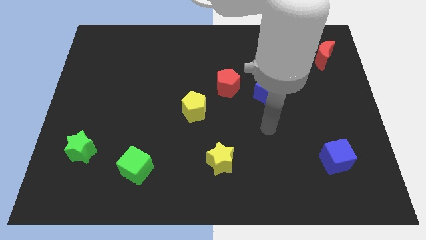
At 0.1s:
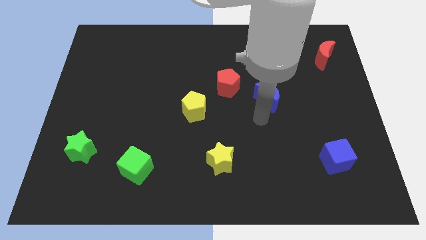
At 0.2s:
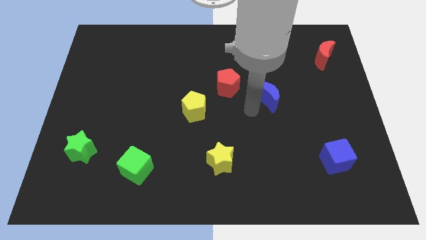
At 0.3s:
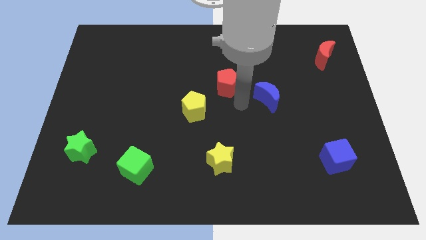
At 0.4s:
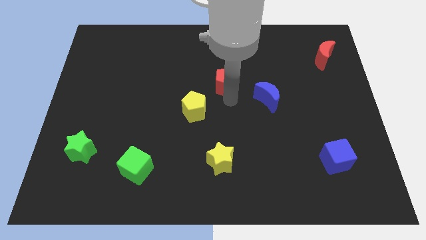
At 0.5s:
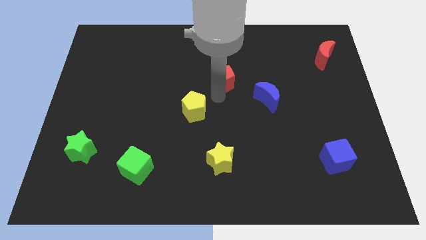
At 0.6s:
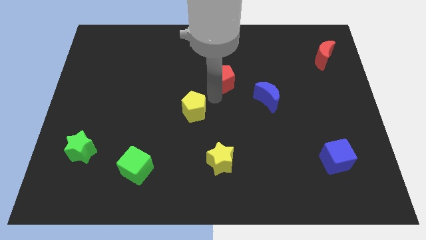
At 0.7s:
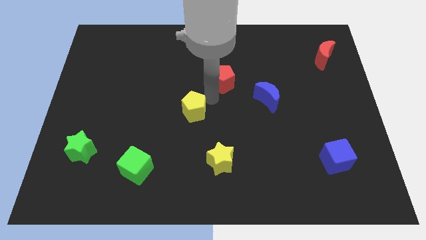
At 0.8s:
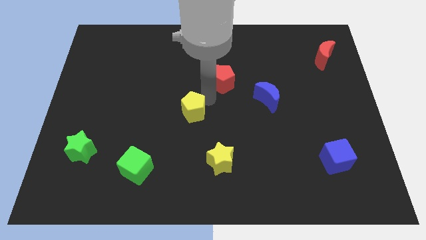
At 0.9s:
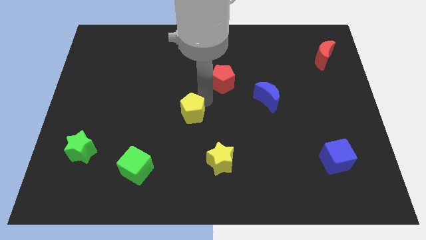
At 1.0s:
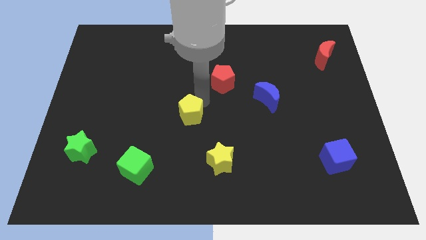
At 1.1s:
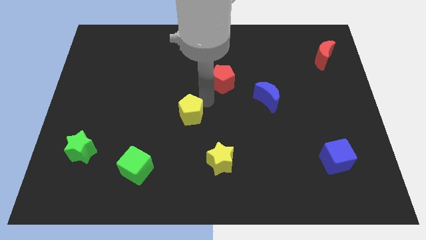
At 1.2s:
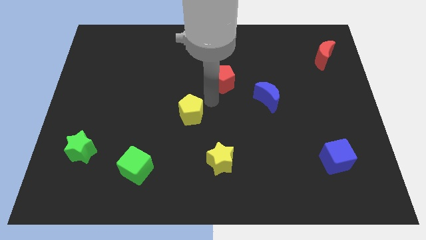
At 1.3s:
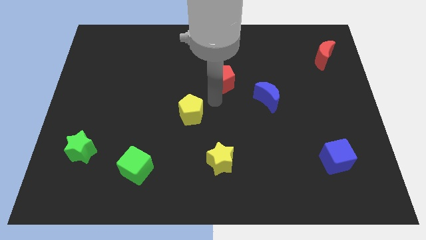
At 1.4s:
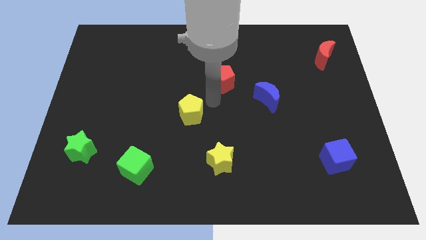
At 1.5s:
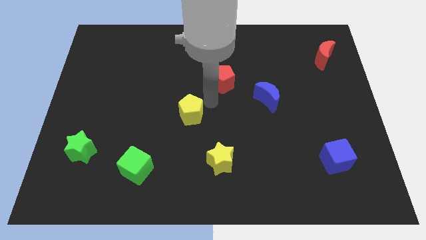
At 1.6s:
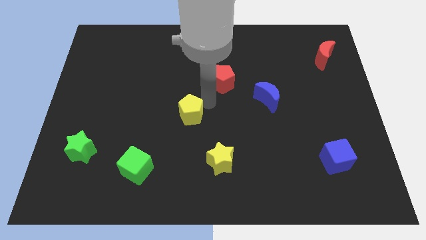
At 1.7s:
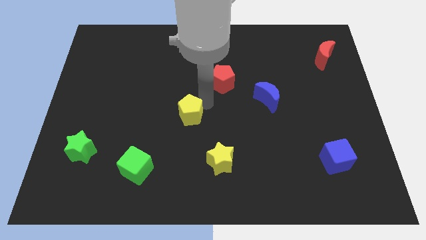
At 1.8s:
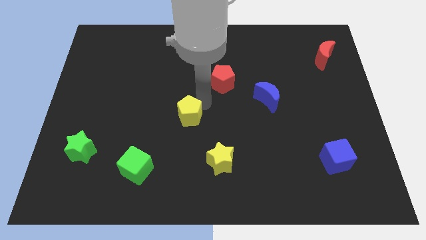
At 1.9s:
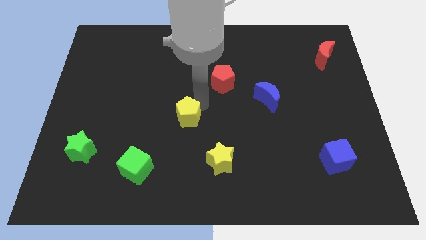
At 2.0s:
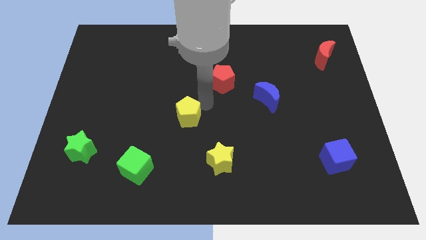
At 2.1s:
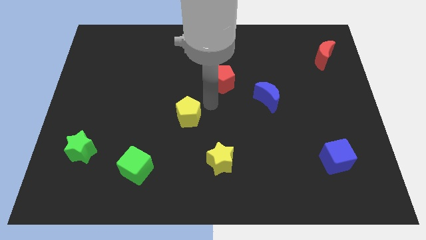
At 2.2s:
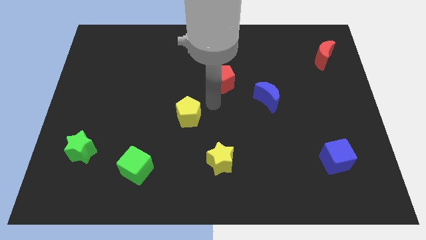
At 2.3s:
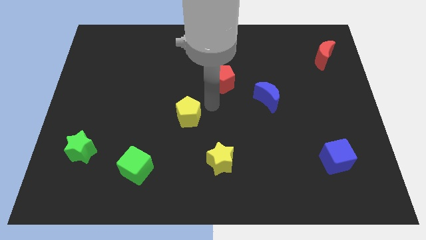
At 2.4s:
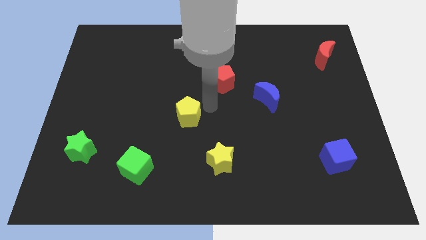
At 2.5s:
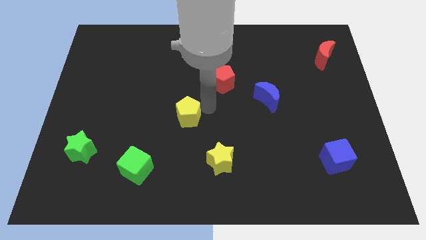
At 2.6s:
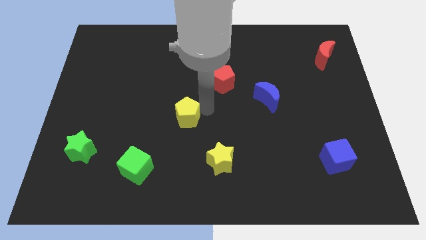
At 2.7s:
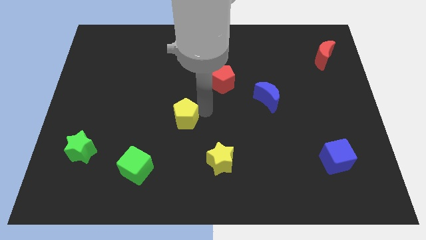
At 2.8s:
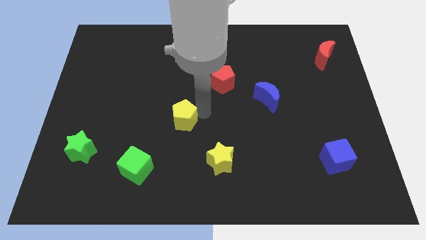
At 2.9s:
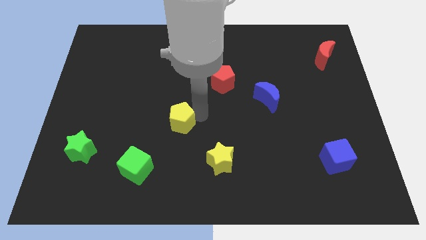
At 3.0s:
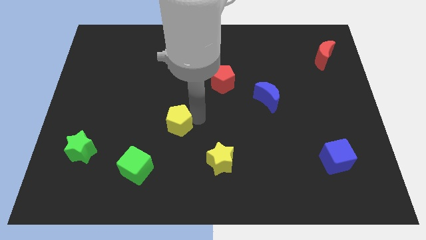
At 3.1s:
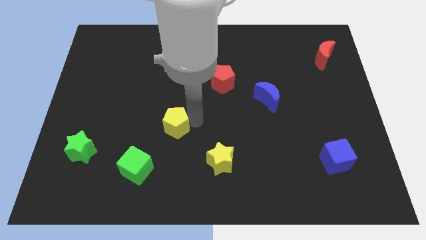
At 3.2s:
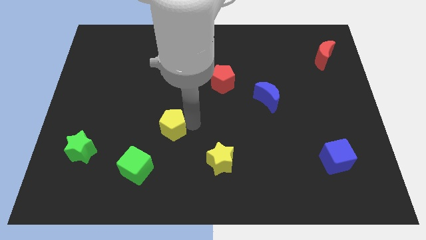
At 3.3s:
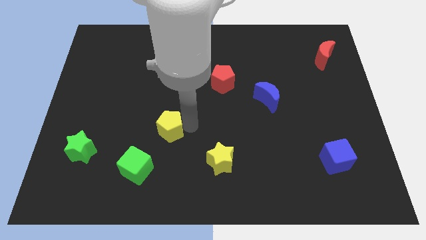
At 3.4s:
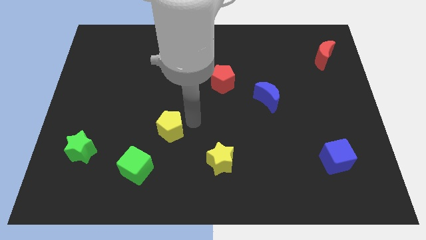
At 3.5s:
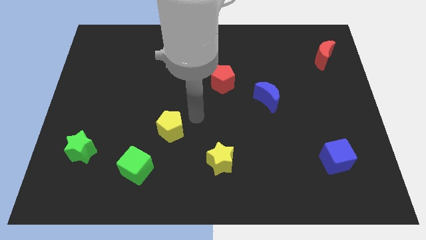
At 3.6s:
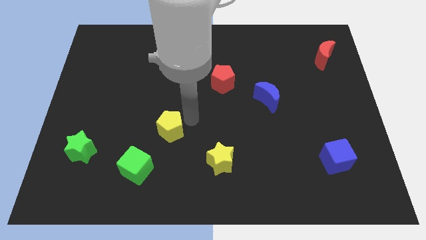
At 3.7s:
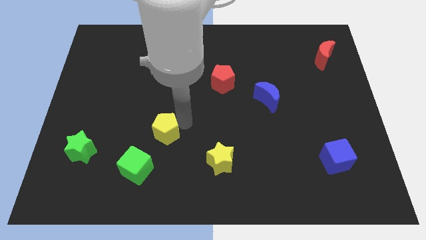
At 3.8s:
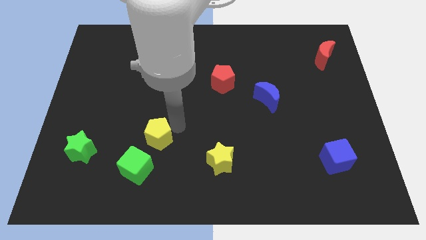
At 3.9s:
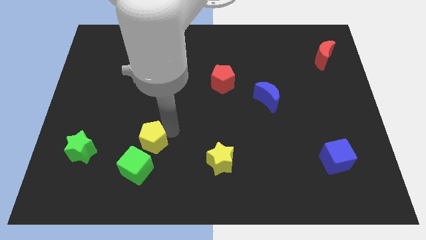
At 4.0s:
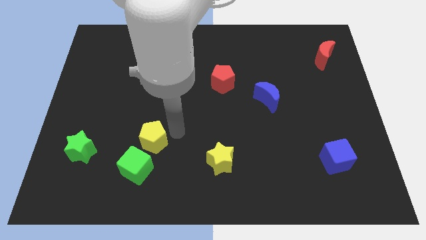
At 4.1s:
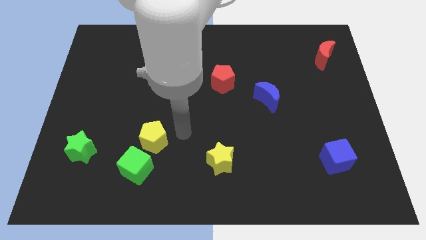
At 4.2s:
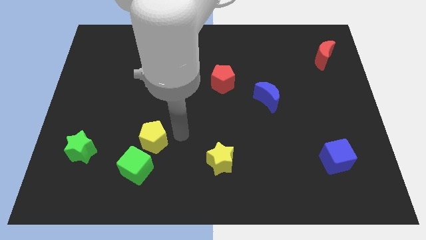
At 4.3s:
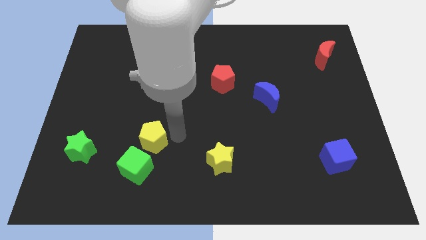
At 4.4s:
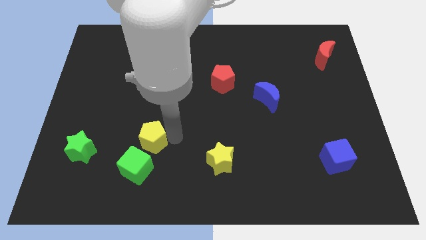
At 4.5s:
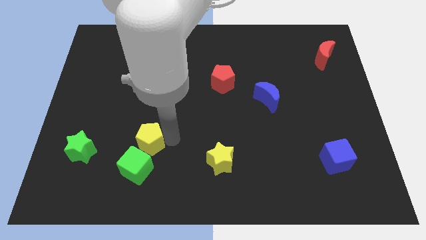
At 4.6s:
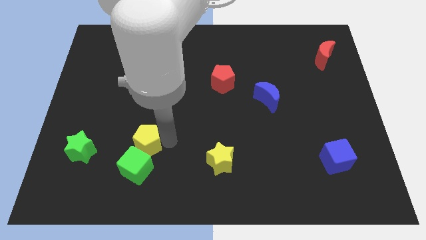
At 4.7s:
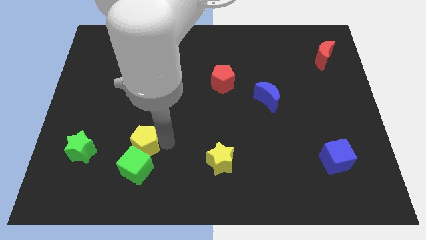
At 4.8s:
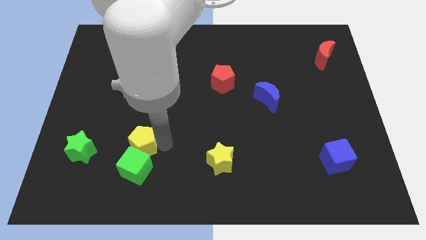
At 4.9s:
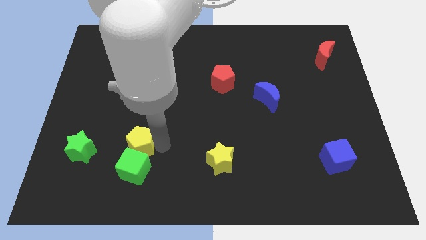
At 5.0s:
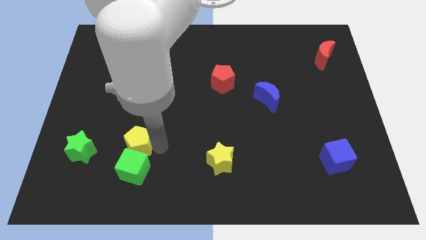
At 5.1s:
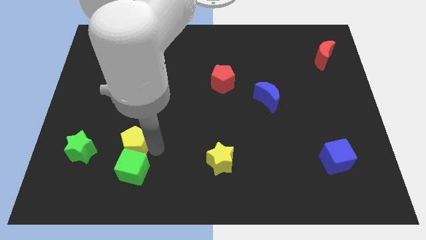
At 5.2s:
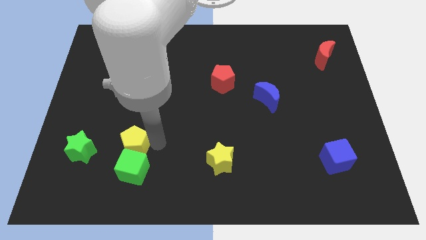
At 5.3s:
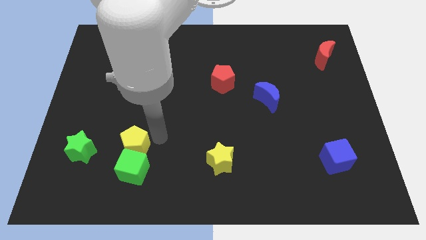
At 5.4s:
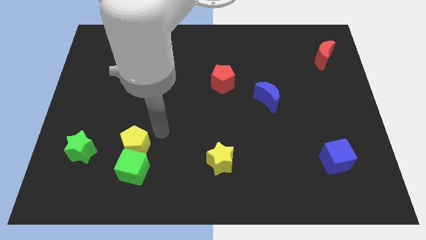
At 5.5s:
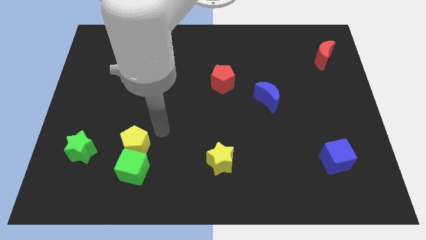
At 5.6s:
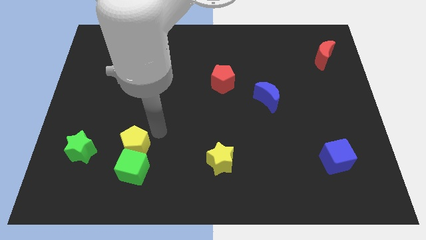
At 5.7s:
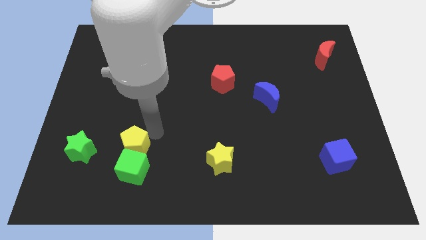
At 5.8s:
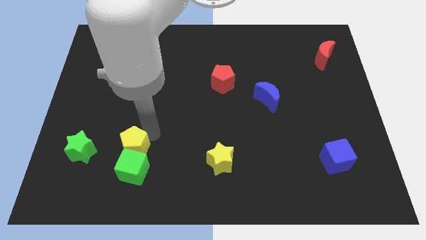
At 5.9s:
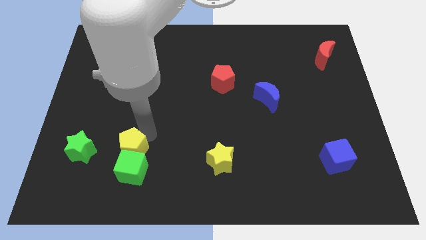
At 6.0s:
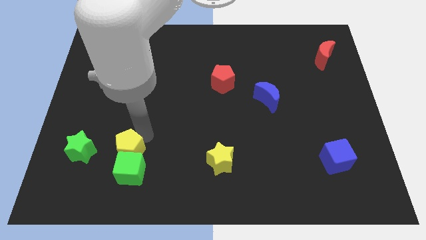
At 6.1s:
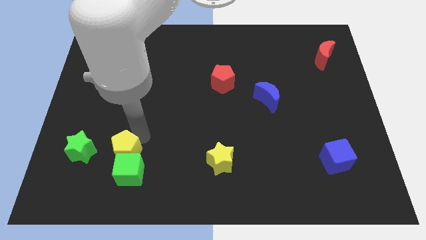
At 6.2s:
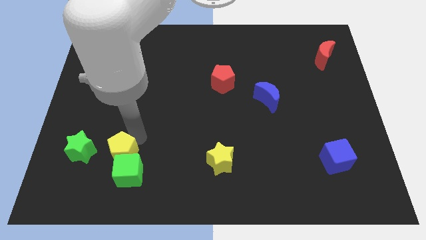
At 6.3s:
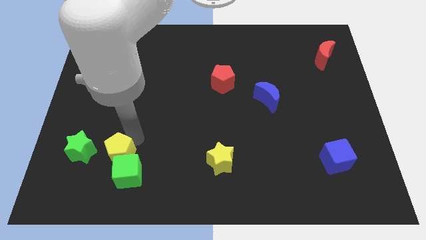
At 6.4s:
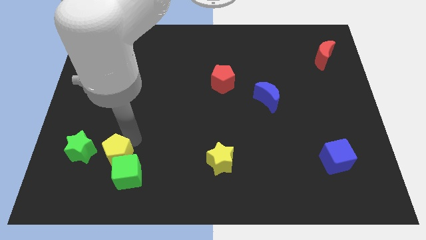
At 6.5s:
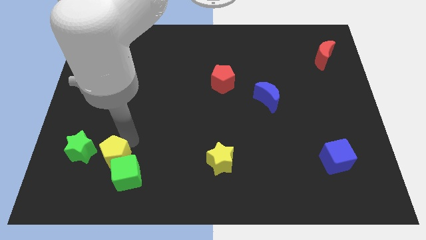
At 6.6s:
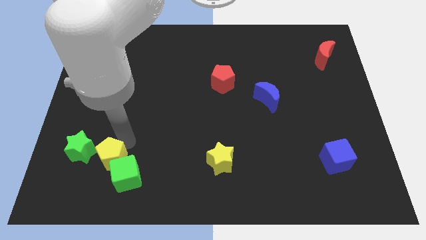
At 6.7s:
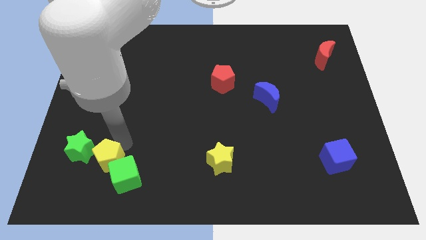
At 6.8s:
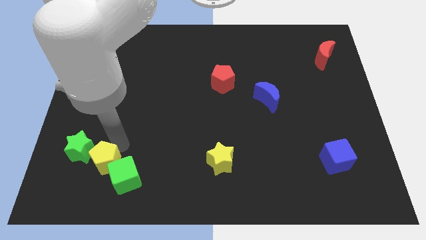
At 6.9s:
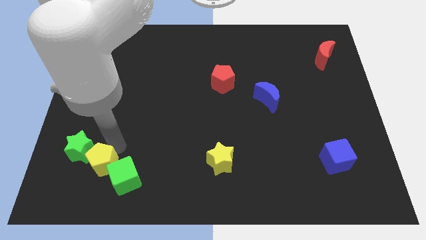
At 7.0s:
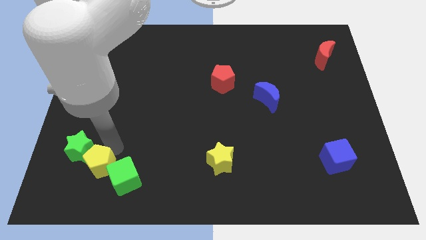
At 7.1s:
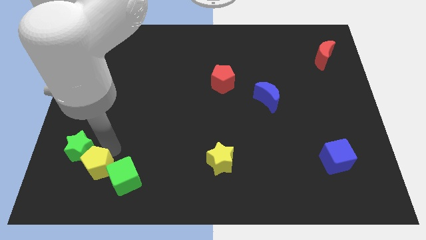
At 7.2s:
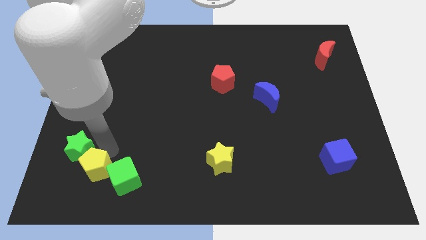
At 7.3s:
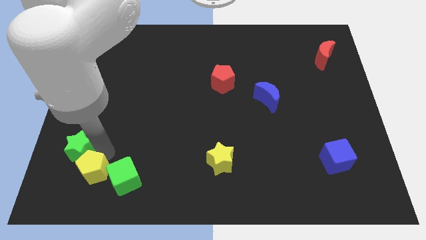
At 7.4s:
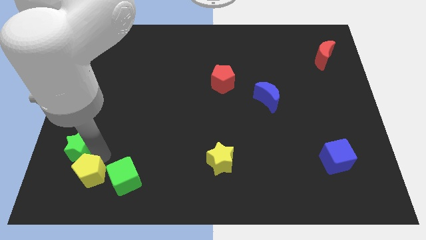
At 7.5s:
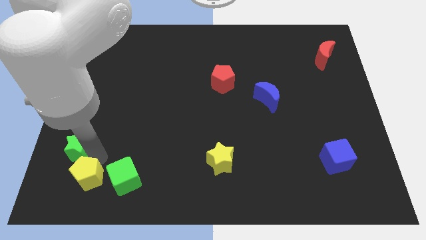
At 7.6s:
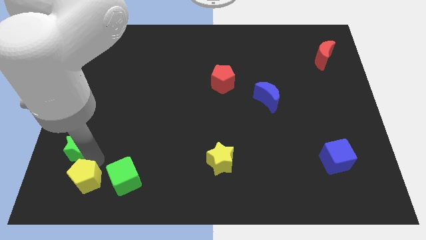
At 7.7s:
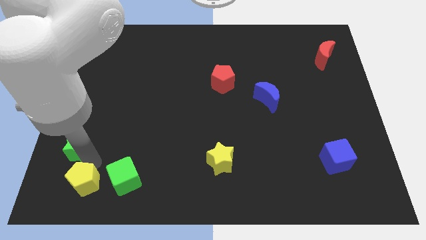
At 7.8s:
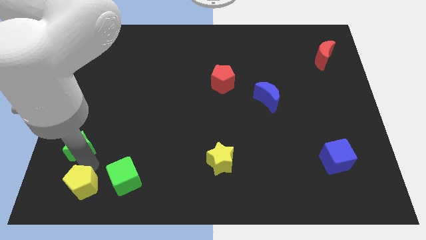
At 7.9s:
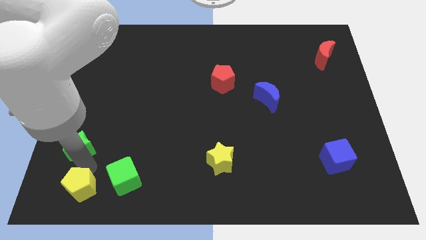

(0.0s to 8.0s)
slide the yellow pentagon to the bottom left of the board
